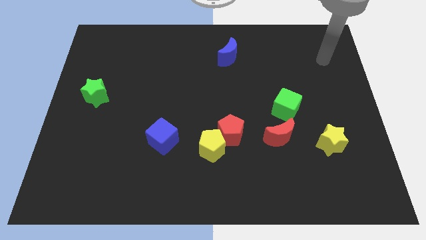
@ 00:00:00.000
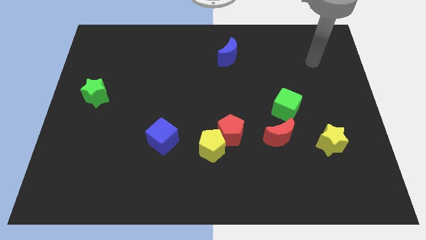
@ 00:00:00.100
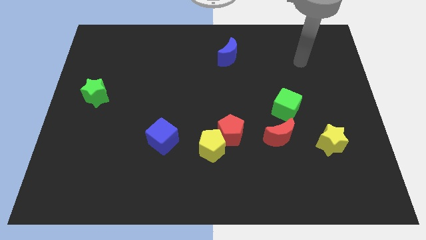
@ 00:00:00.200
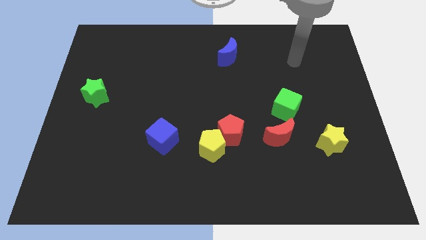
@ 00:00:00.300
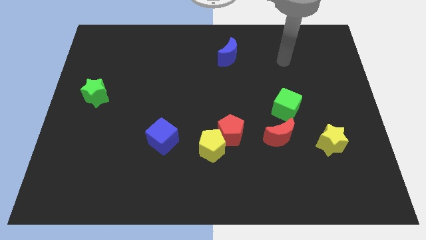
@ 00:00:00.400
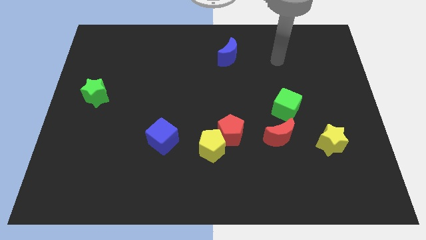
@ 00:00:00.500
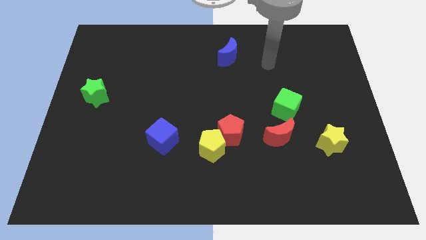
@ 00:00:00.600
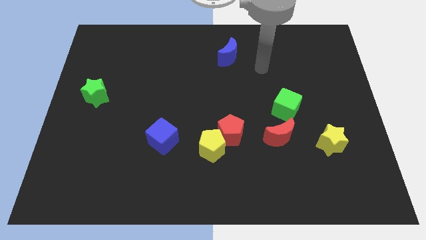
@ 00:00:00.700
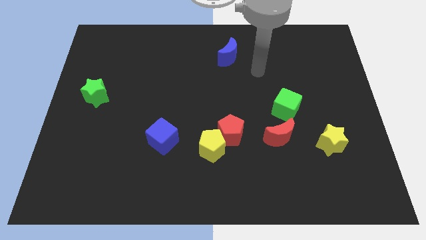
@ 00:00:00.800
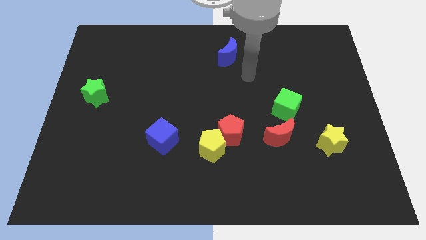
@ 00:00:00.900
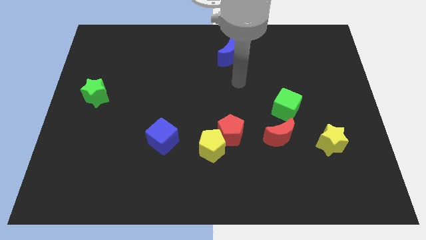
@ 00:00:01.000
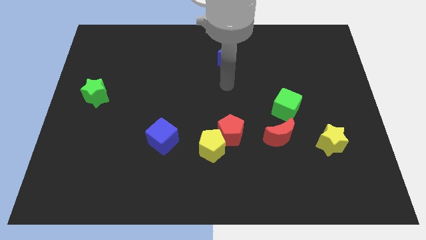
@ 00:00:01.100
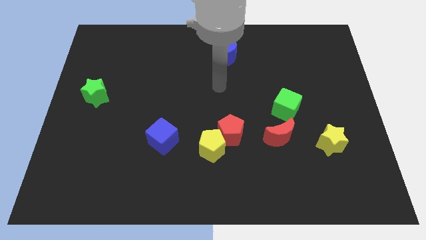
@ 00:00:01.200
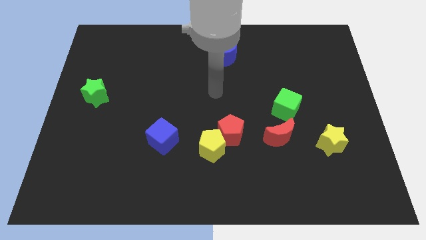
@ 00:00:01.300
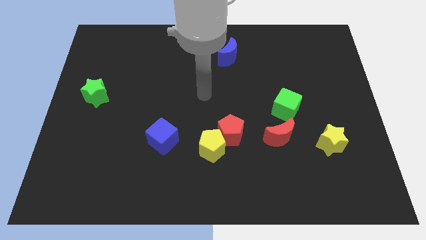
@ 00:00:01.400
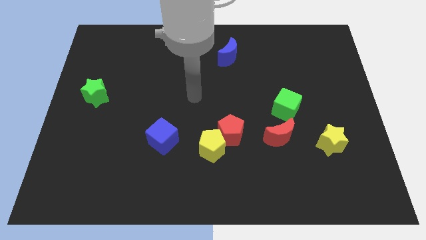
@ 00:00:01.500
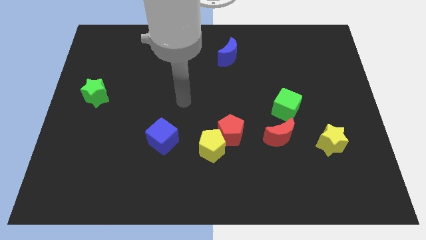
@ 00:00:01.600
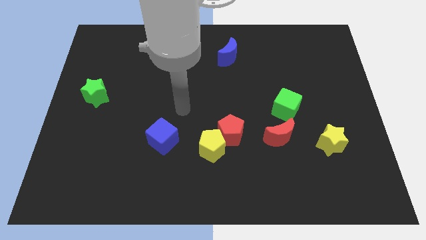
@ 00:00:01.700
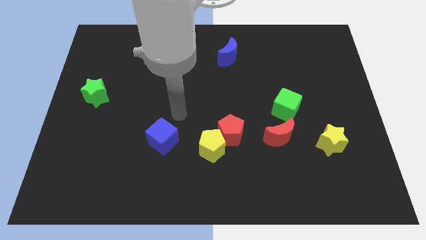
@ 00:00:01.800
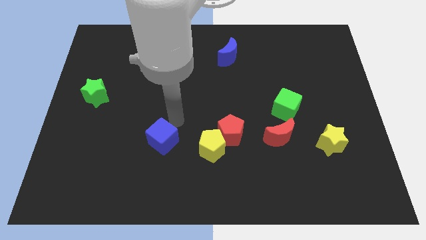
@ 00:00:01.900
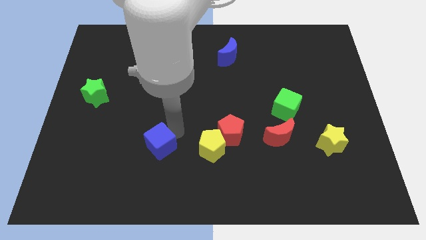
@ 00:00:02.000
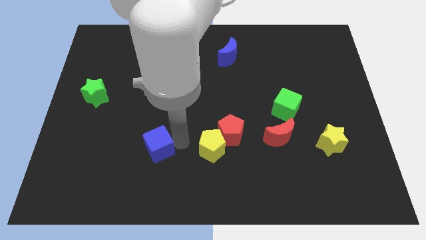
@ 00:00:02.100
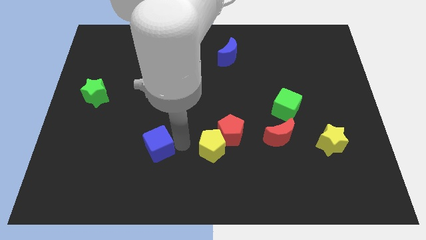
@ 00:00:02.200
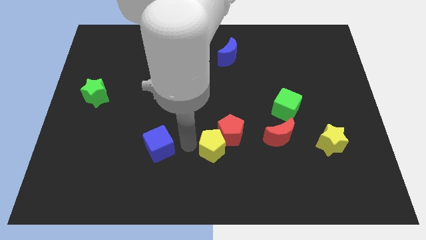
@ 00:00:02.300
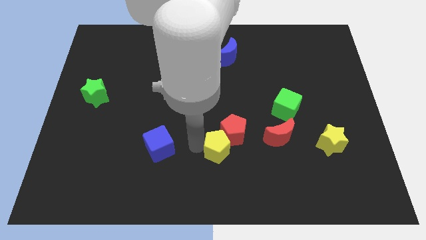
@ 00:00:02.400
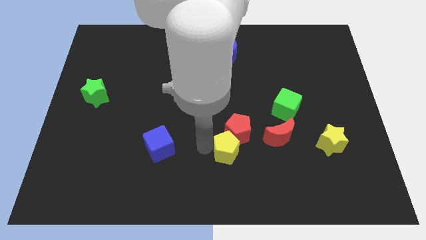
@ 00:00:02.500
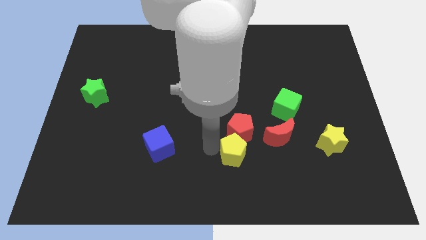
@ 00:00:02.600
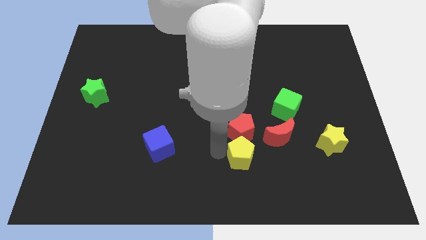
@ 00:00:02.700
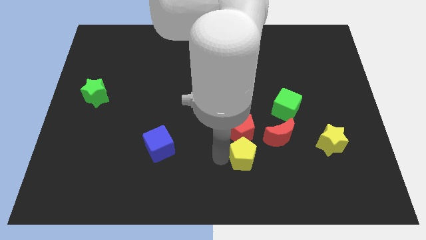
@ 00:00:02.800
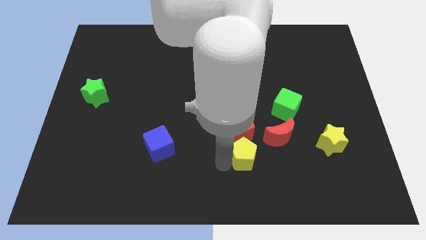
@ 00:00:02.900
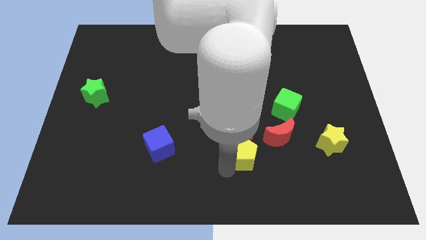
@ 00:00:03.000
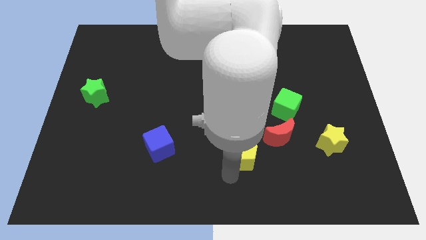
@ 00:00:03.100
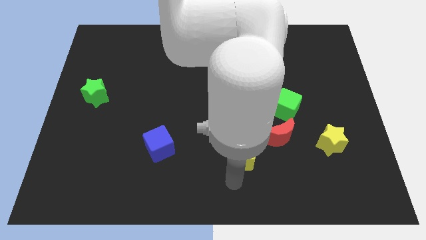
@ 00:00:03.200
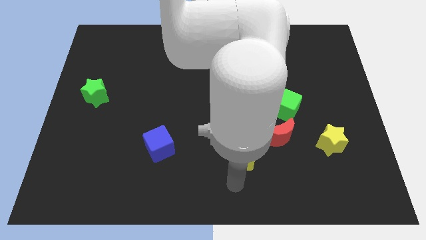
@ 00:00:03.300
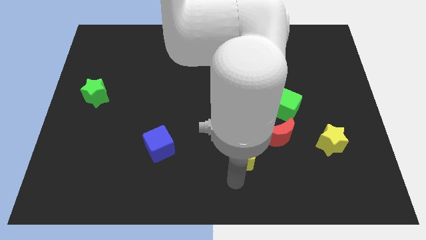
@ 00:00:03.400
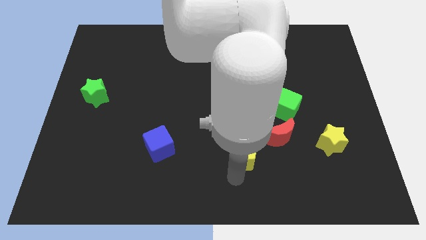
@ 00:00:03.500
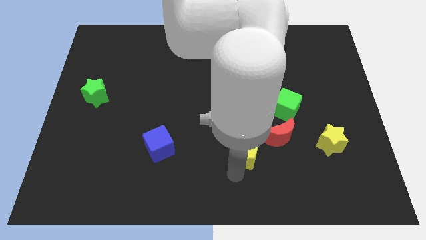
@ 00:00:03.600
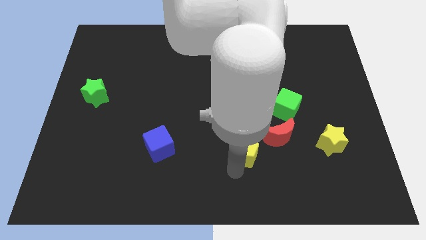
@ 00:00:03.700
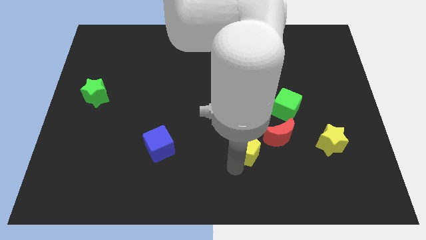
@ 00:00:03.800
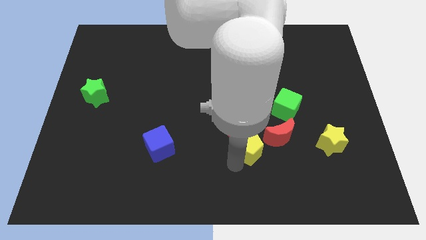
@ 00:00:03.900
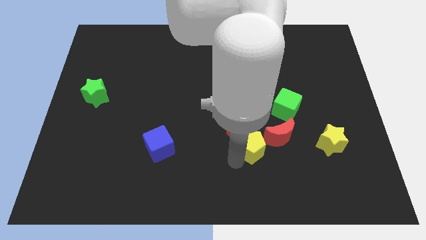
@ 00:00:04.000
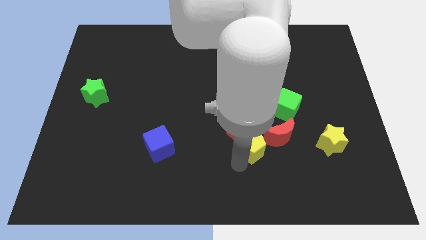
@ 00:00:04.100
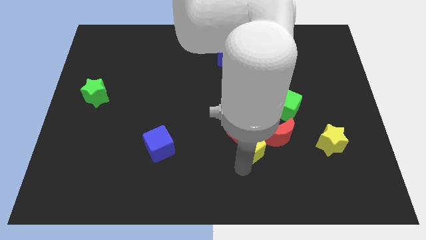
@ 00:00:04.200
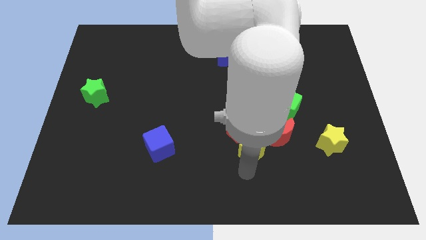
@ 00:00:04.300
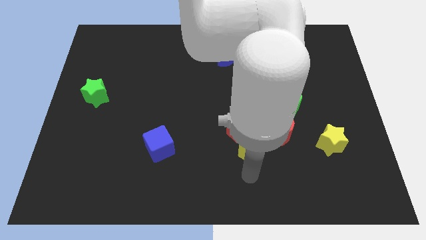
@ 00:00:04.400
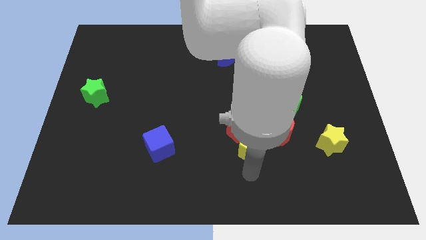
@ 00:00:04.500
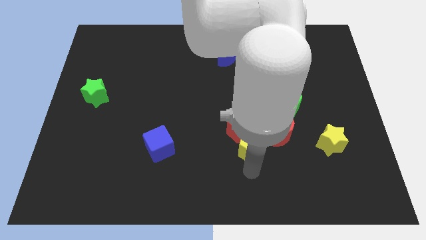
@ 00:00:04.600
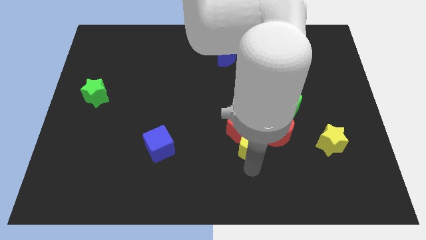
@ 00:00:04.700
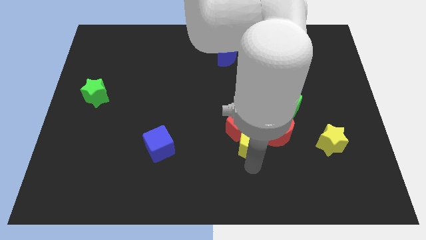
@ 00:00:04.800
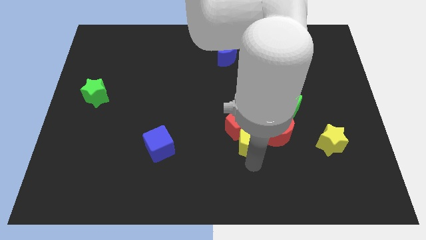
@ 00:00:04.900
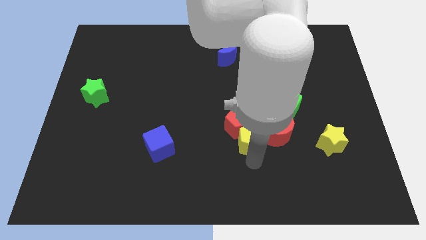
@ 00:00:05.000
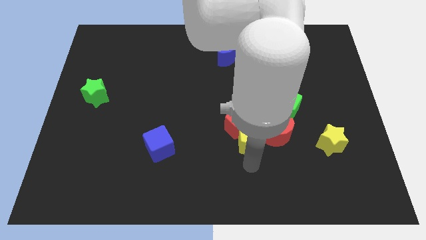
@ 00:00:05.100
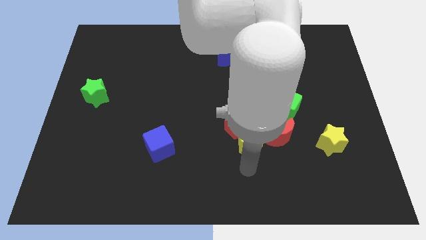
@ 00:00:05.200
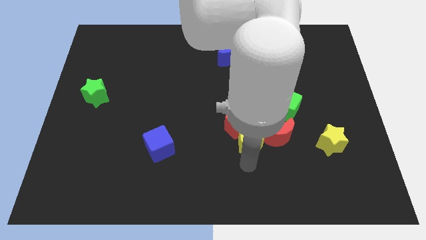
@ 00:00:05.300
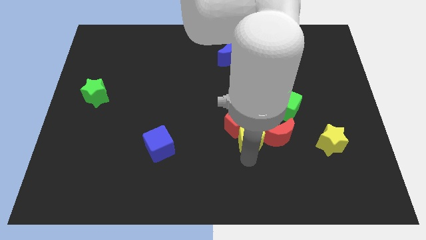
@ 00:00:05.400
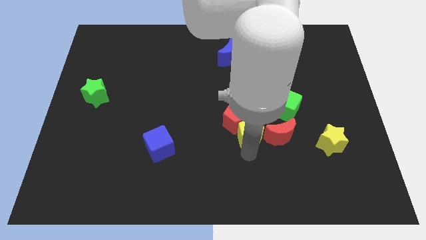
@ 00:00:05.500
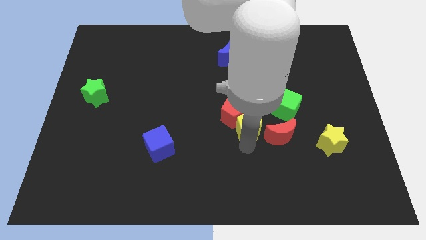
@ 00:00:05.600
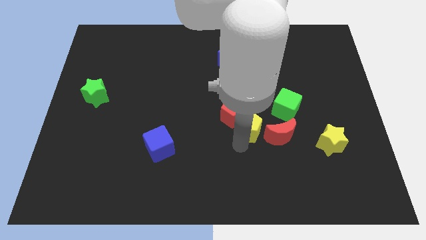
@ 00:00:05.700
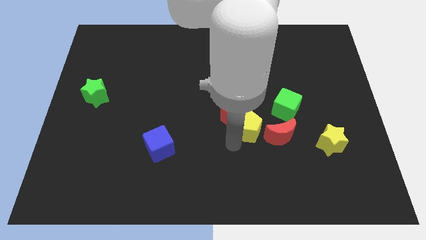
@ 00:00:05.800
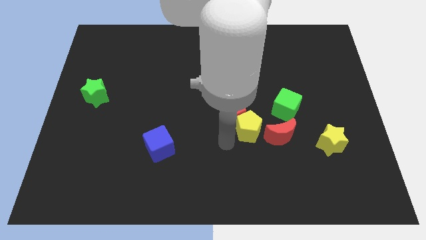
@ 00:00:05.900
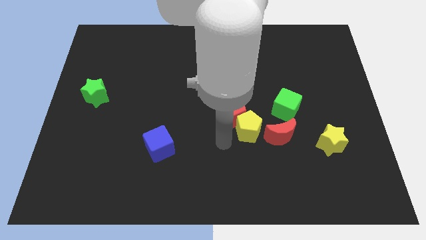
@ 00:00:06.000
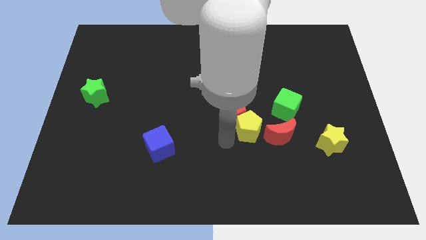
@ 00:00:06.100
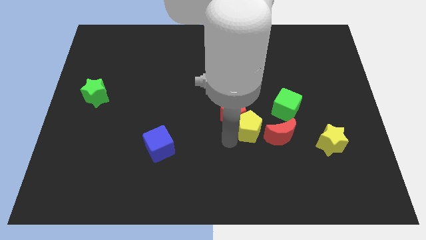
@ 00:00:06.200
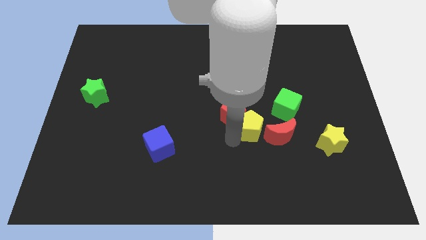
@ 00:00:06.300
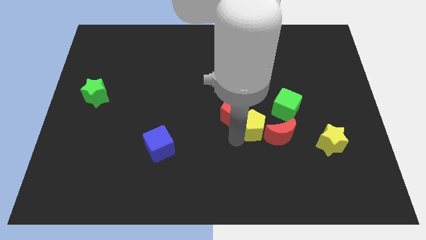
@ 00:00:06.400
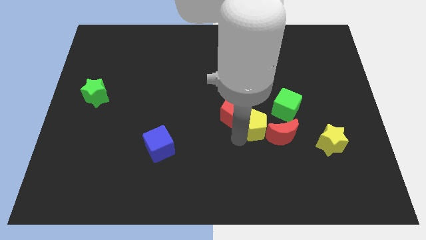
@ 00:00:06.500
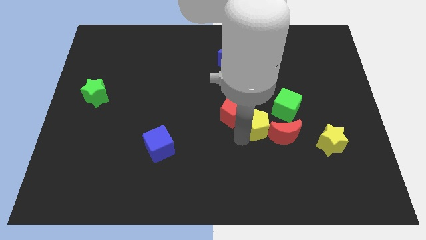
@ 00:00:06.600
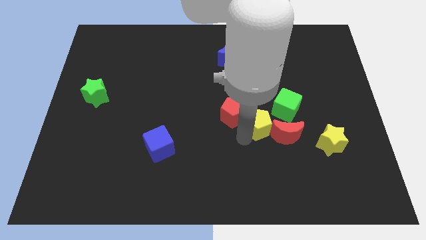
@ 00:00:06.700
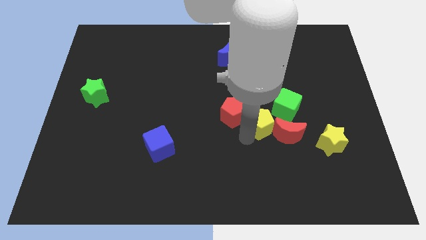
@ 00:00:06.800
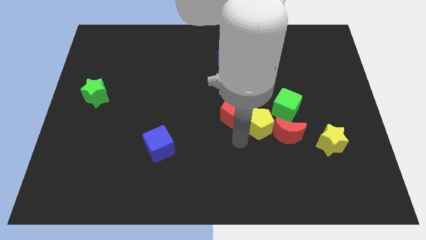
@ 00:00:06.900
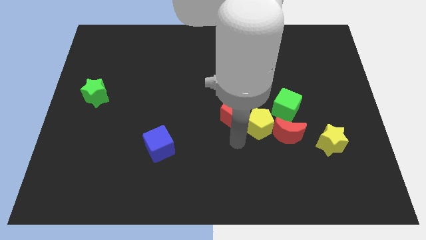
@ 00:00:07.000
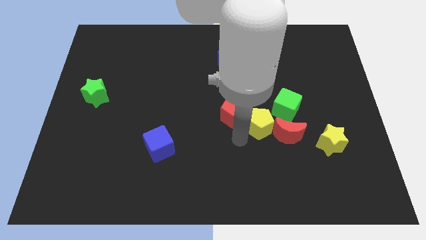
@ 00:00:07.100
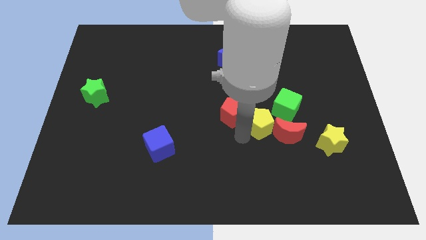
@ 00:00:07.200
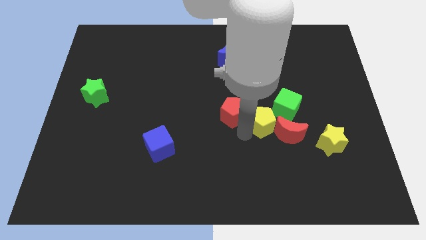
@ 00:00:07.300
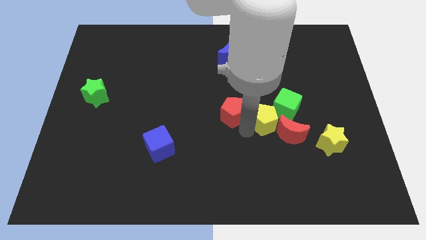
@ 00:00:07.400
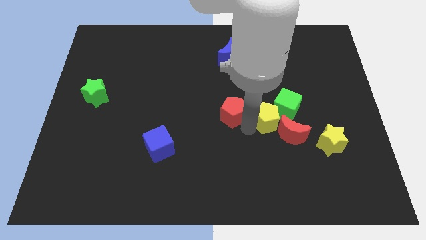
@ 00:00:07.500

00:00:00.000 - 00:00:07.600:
push the yellow pentagon close to the green cube
